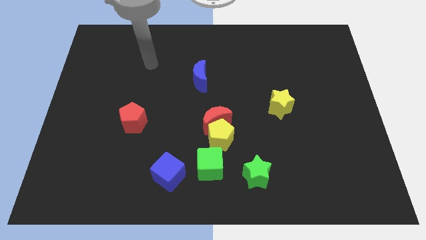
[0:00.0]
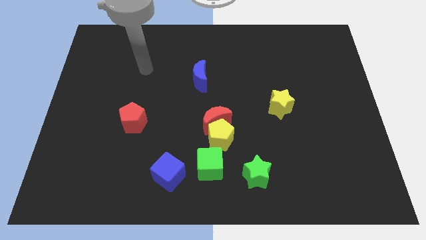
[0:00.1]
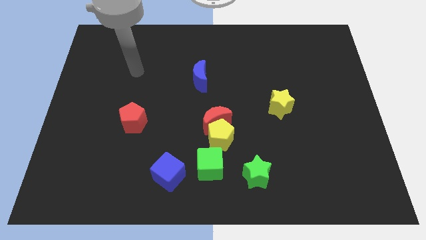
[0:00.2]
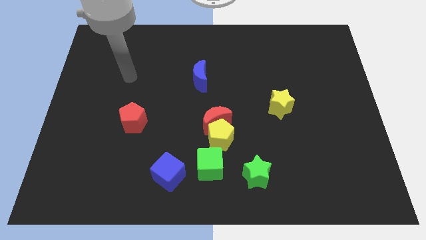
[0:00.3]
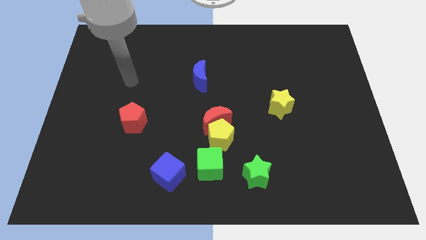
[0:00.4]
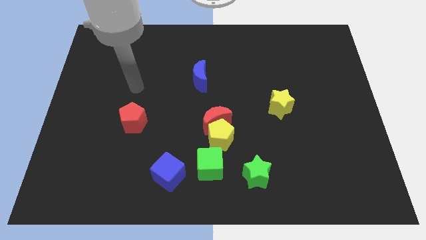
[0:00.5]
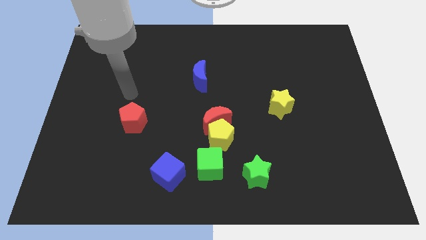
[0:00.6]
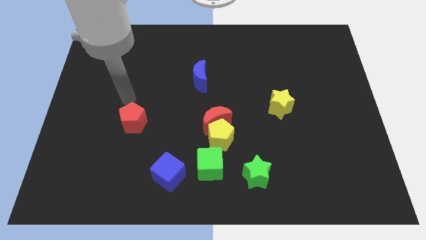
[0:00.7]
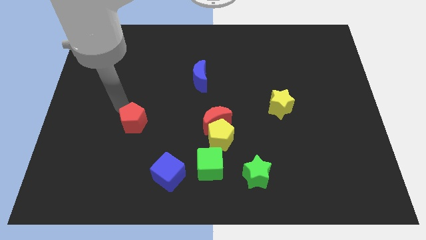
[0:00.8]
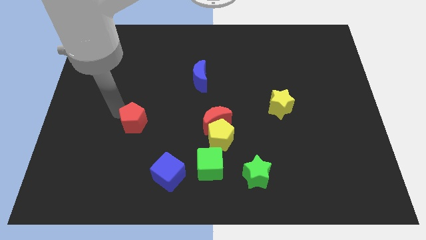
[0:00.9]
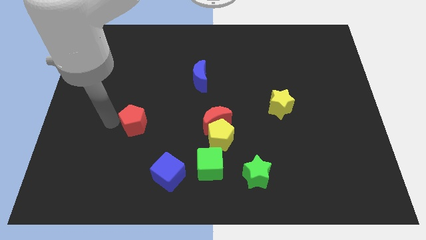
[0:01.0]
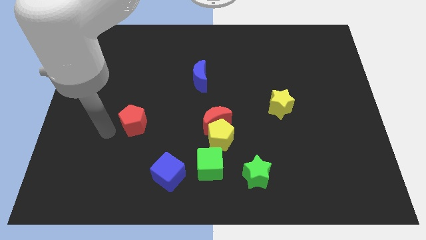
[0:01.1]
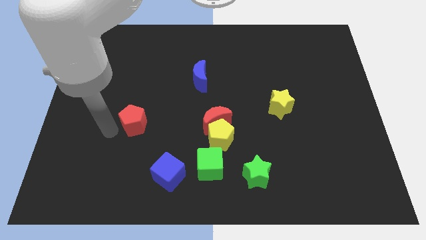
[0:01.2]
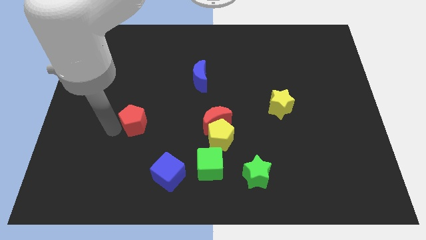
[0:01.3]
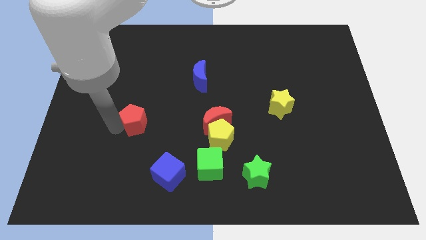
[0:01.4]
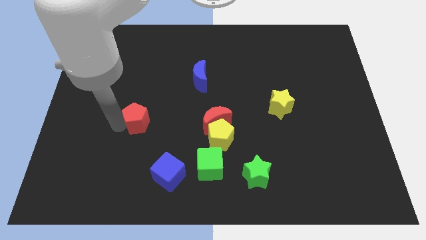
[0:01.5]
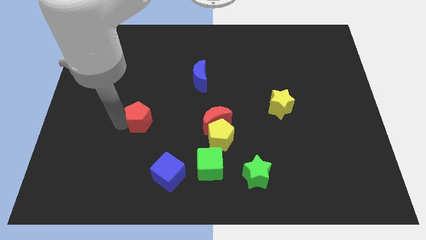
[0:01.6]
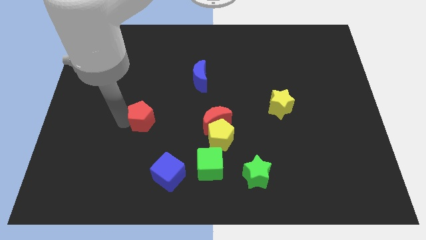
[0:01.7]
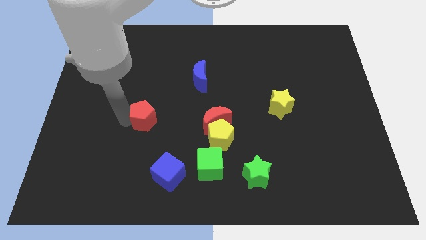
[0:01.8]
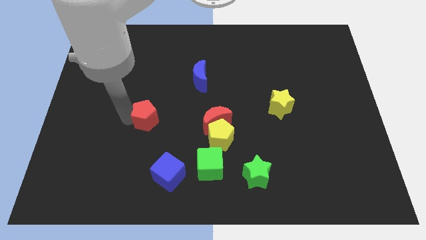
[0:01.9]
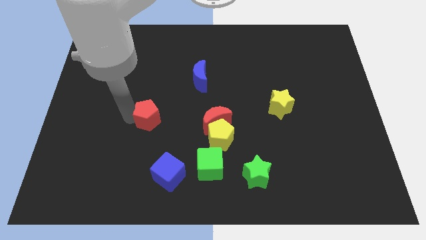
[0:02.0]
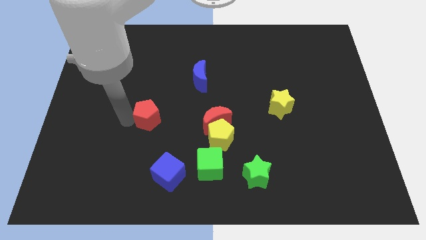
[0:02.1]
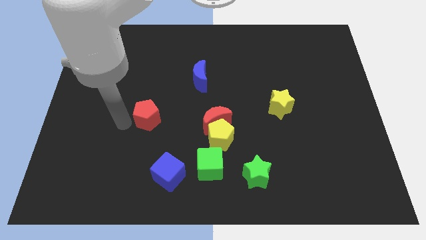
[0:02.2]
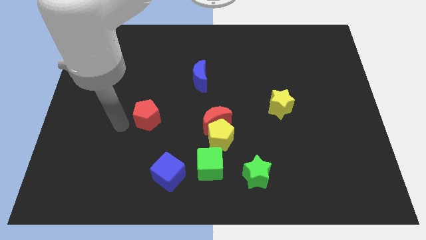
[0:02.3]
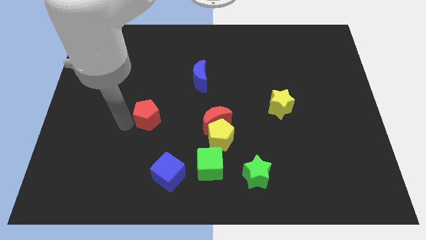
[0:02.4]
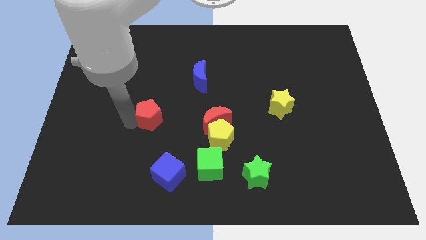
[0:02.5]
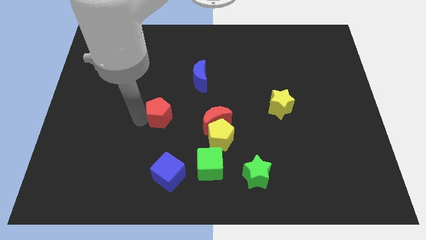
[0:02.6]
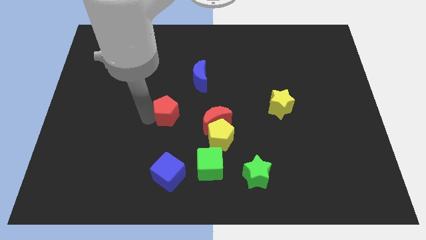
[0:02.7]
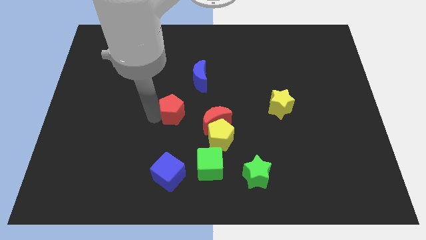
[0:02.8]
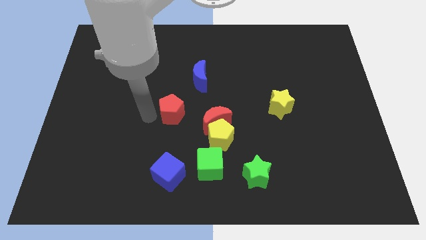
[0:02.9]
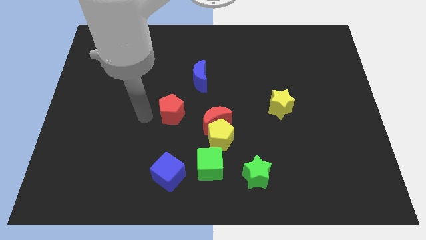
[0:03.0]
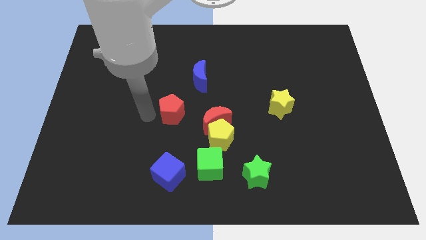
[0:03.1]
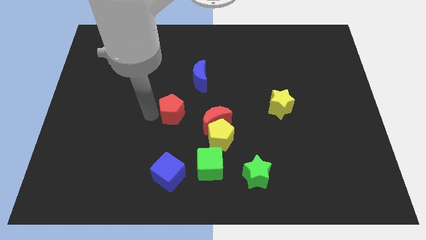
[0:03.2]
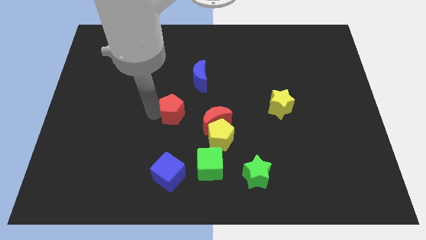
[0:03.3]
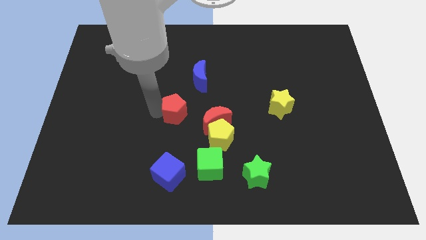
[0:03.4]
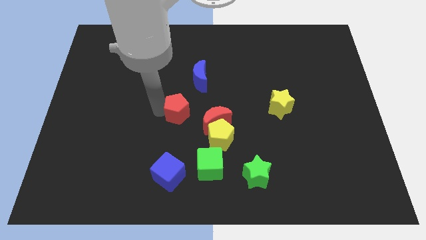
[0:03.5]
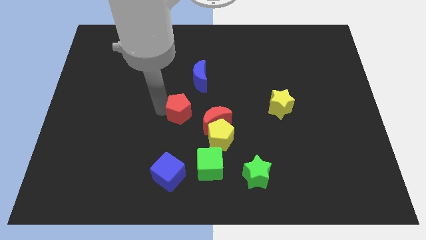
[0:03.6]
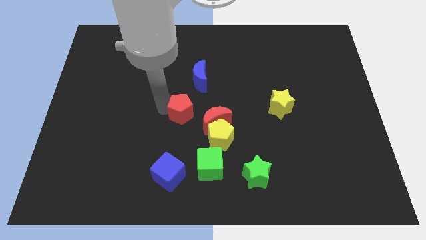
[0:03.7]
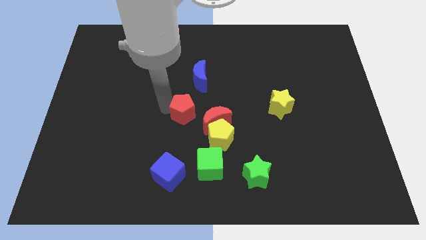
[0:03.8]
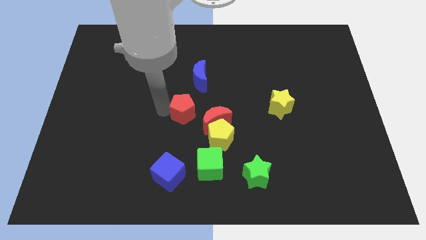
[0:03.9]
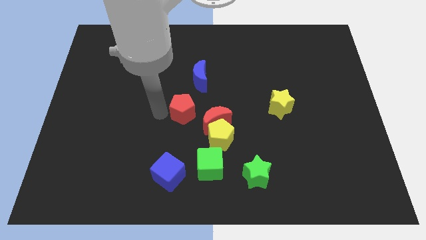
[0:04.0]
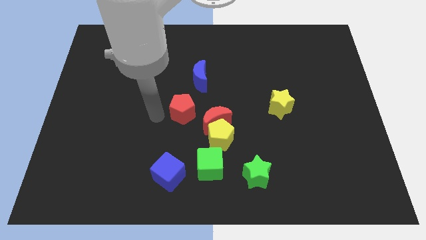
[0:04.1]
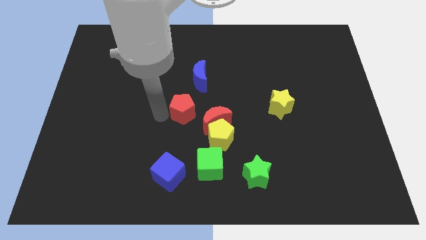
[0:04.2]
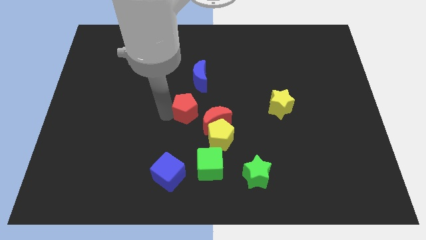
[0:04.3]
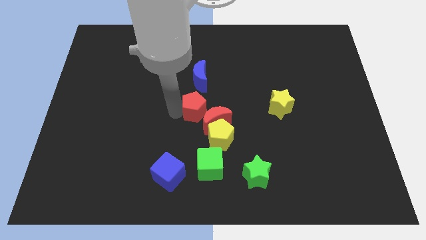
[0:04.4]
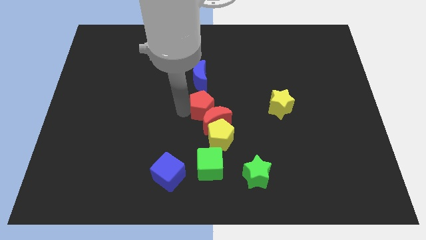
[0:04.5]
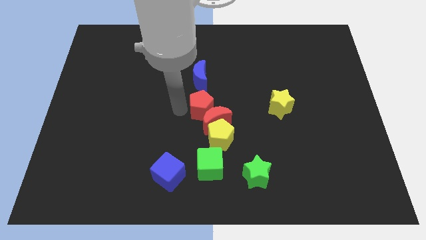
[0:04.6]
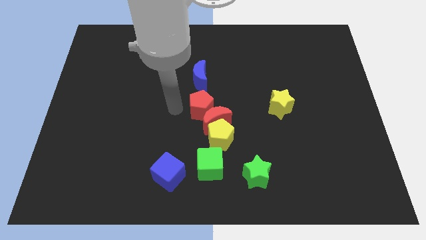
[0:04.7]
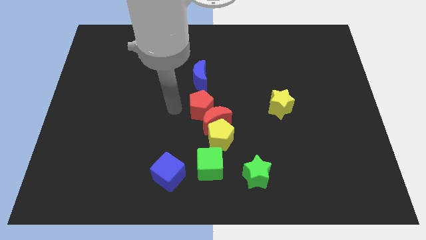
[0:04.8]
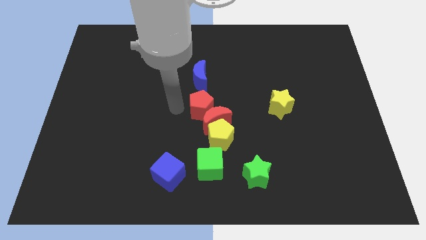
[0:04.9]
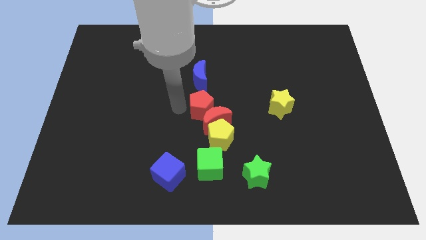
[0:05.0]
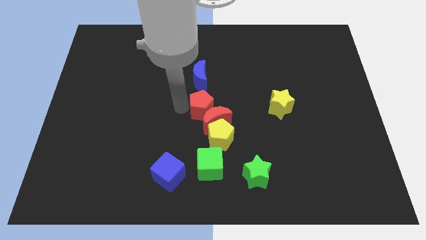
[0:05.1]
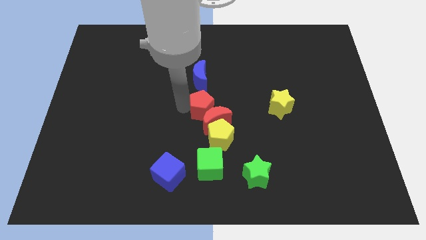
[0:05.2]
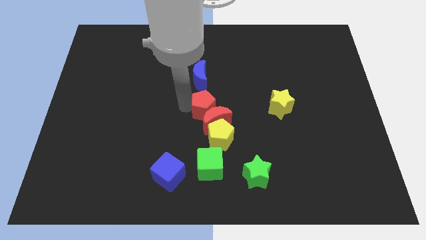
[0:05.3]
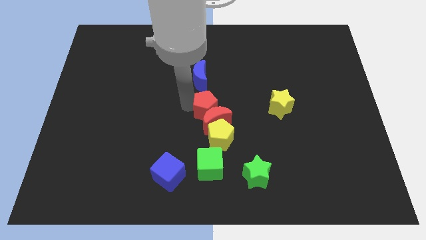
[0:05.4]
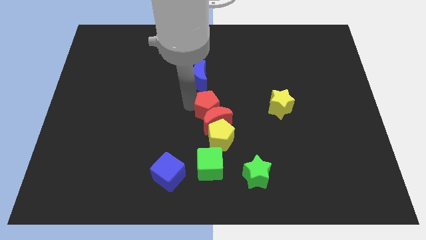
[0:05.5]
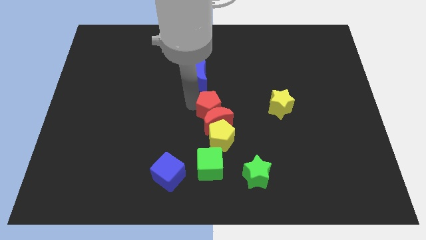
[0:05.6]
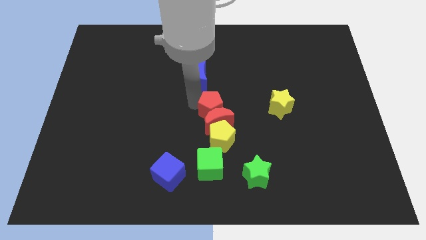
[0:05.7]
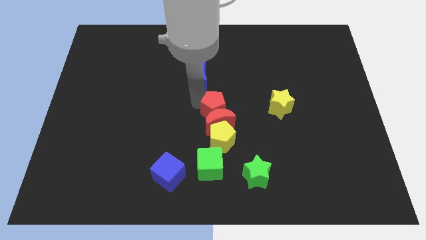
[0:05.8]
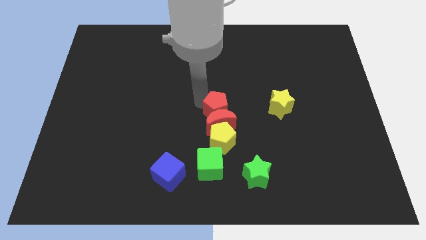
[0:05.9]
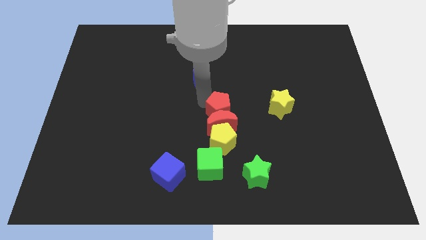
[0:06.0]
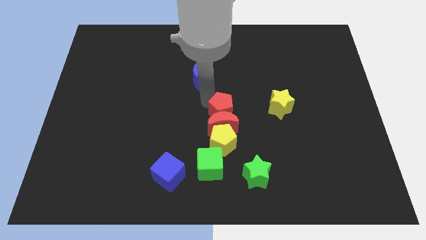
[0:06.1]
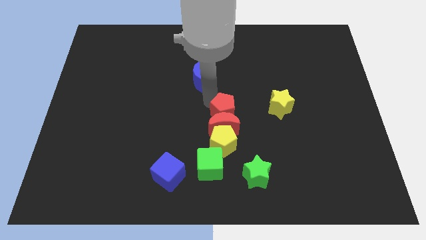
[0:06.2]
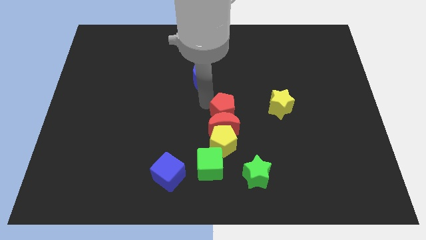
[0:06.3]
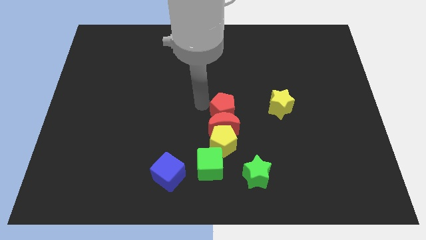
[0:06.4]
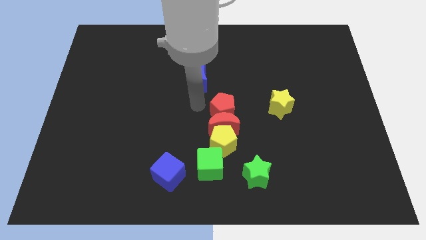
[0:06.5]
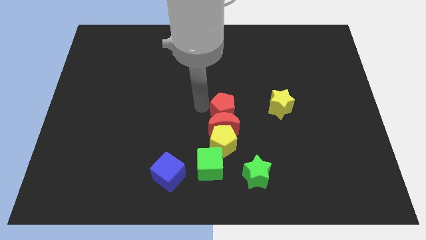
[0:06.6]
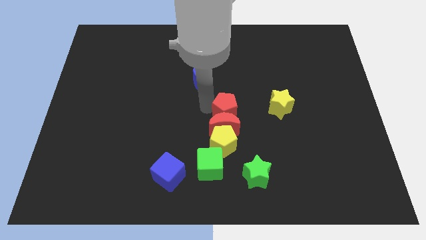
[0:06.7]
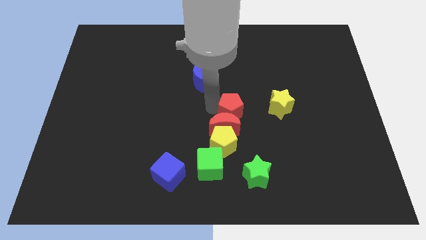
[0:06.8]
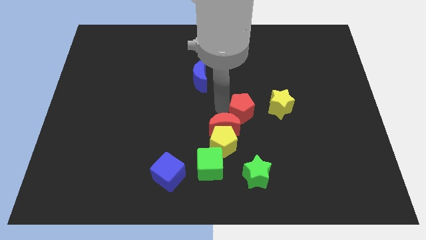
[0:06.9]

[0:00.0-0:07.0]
put the red pentagon right of the red moon

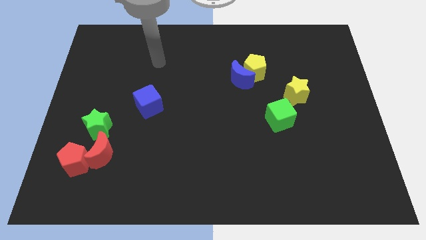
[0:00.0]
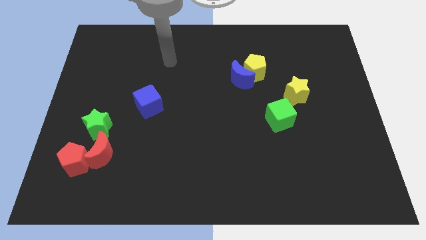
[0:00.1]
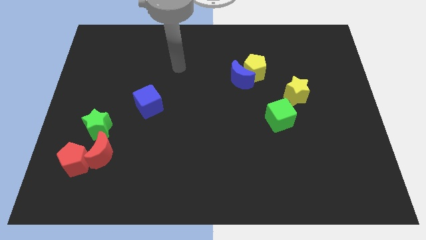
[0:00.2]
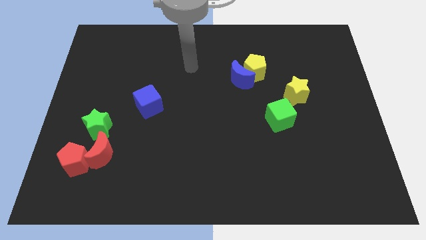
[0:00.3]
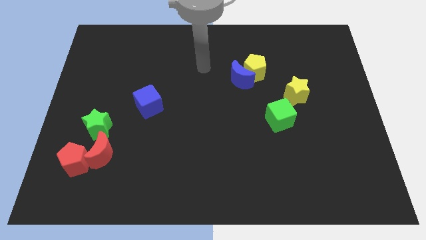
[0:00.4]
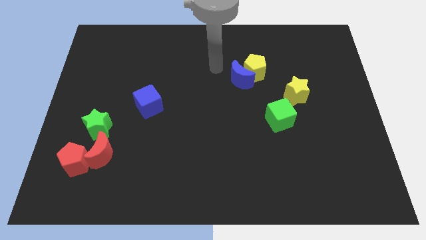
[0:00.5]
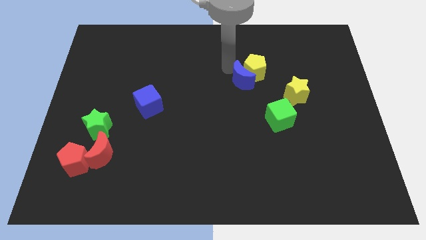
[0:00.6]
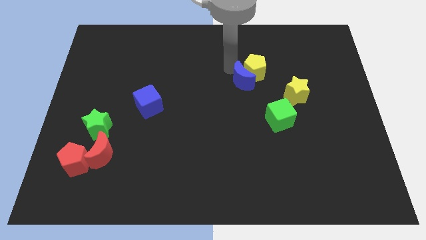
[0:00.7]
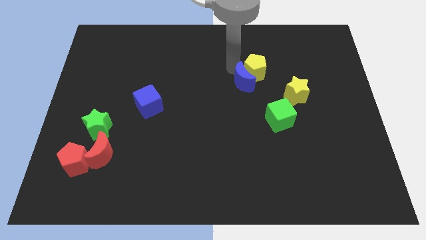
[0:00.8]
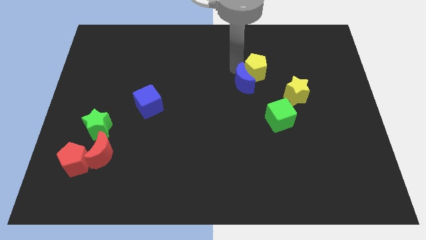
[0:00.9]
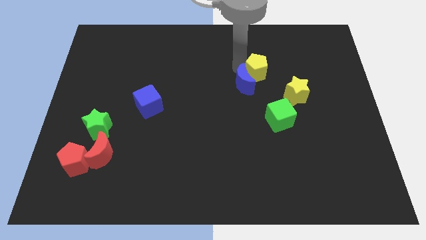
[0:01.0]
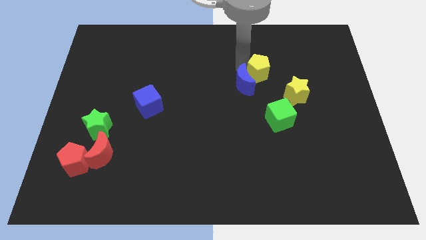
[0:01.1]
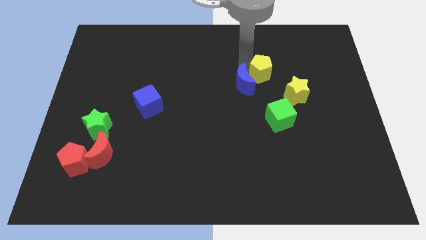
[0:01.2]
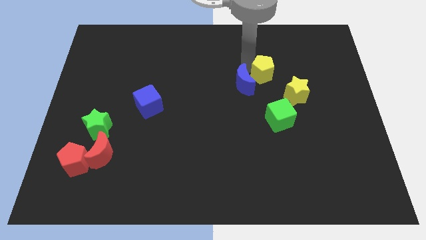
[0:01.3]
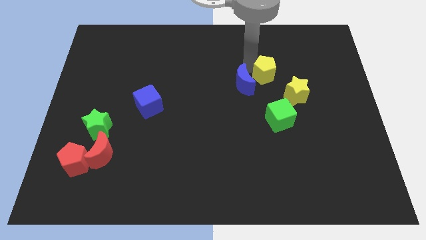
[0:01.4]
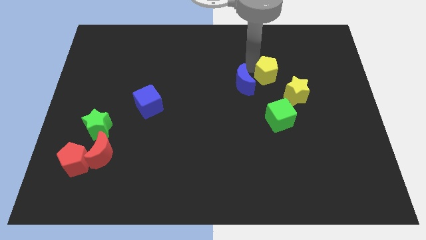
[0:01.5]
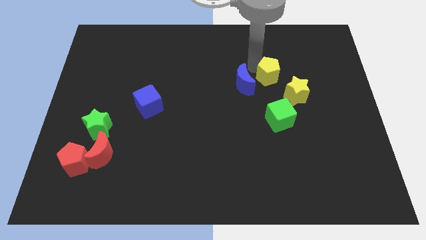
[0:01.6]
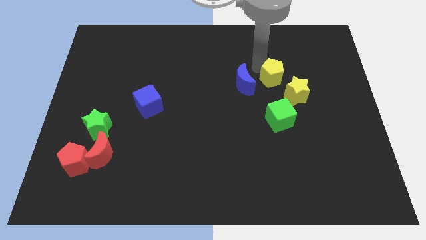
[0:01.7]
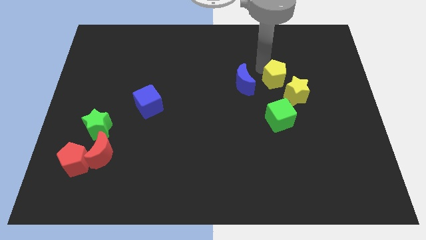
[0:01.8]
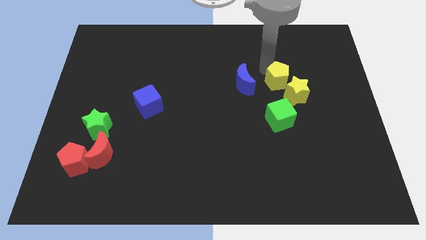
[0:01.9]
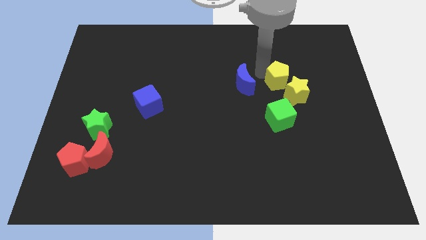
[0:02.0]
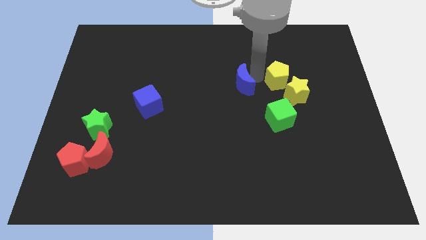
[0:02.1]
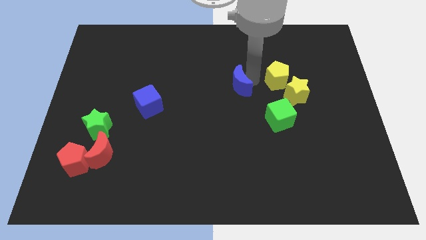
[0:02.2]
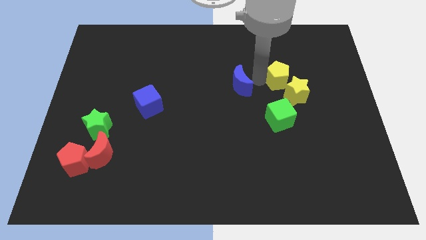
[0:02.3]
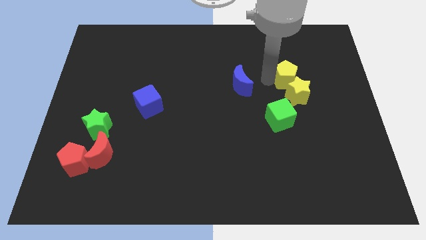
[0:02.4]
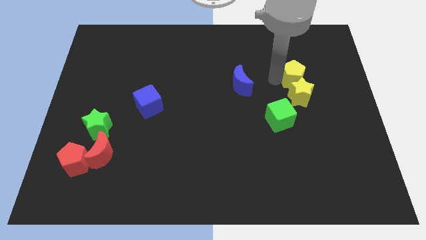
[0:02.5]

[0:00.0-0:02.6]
slide the yellow pentagon to the top right side of the yellow star
